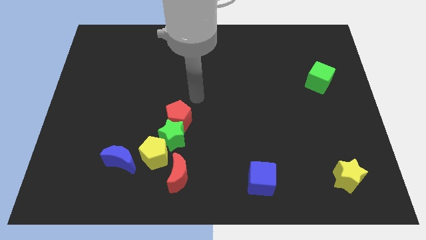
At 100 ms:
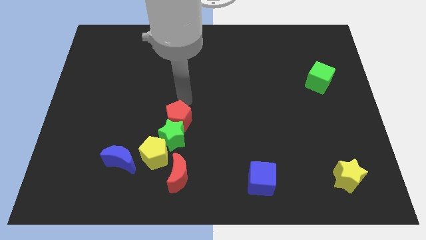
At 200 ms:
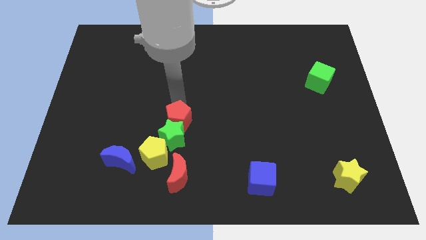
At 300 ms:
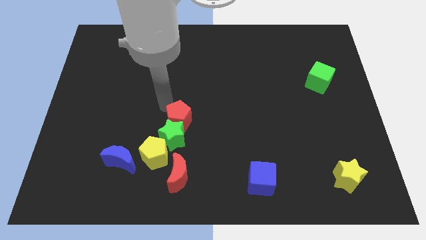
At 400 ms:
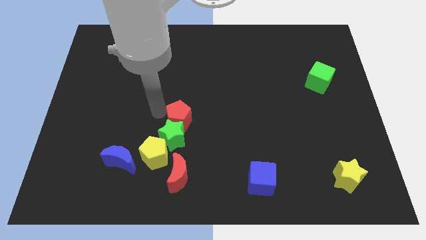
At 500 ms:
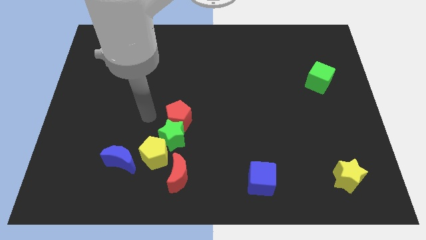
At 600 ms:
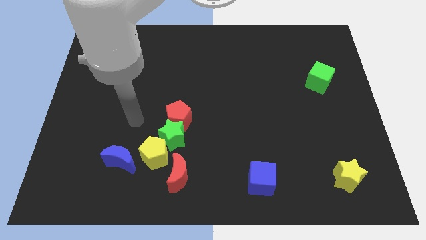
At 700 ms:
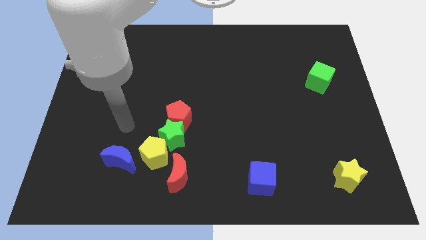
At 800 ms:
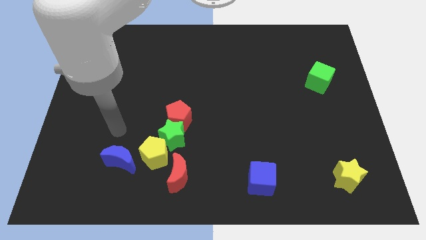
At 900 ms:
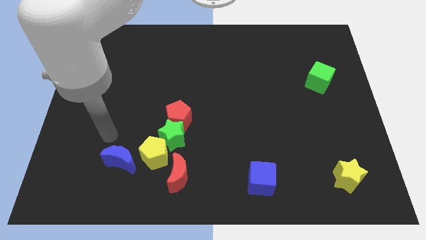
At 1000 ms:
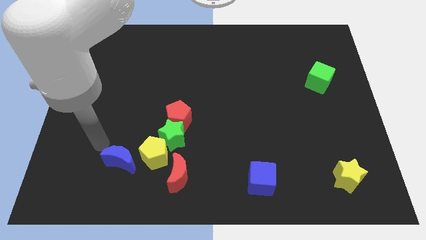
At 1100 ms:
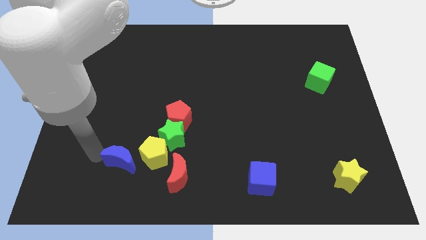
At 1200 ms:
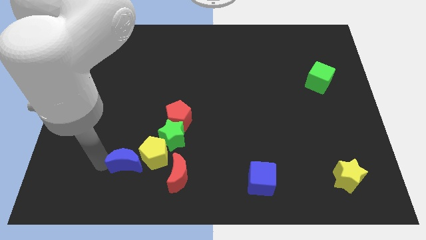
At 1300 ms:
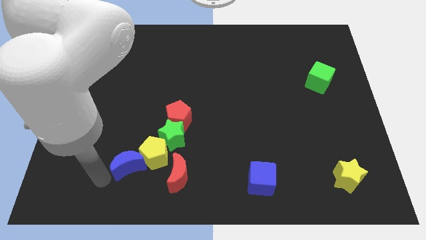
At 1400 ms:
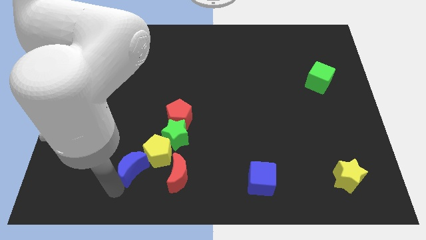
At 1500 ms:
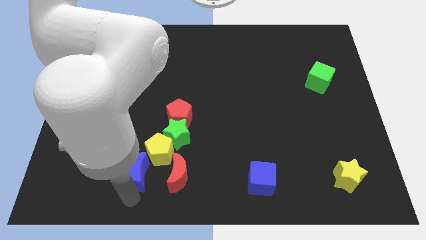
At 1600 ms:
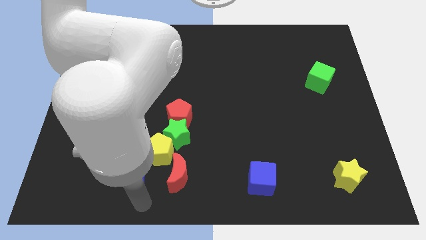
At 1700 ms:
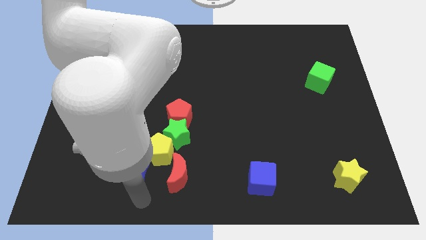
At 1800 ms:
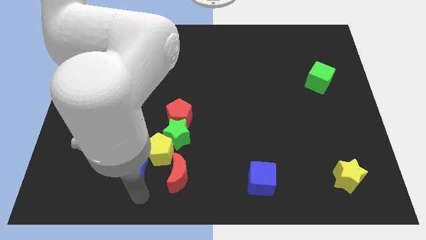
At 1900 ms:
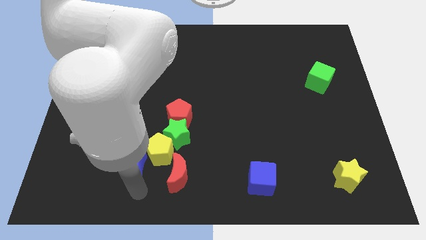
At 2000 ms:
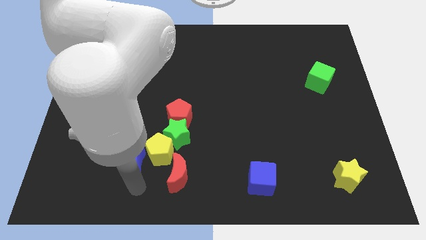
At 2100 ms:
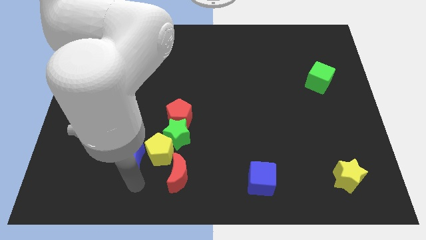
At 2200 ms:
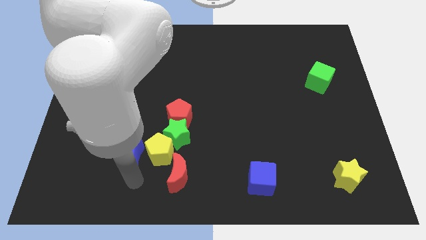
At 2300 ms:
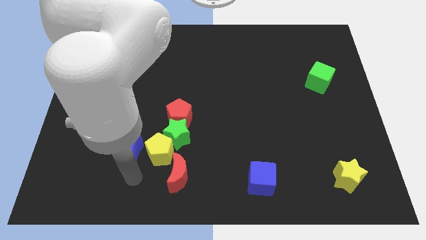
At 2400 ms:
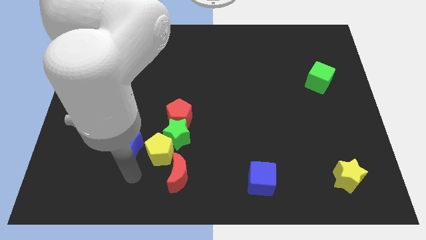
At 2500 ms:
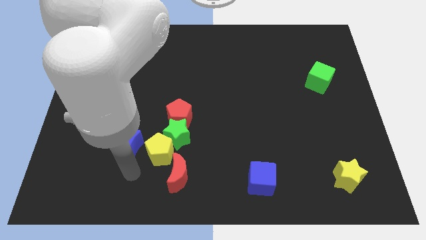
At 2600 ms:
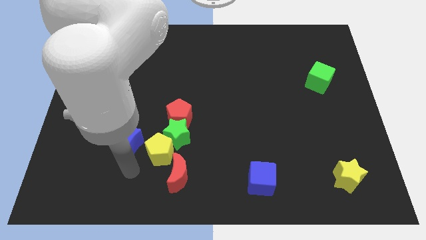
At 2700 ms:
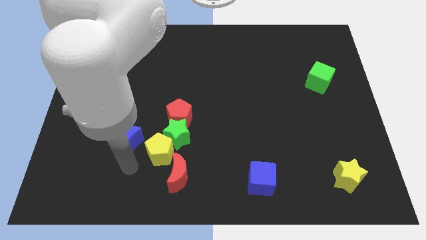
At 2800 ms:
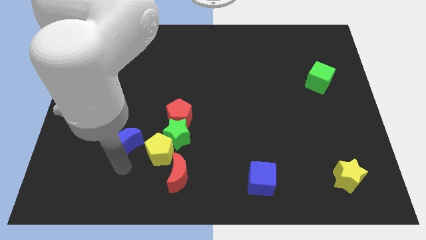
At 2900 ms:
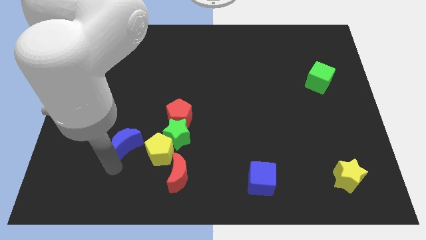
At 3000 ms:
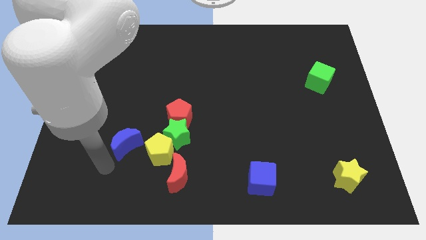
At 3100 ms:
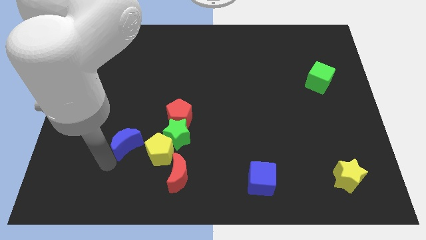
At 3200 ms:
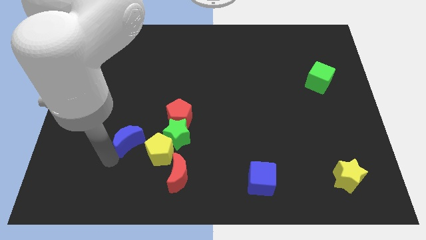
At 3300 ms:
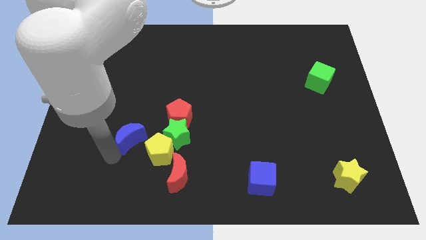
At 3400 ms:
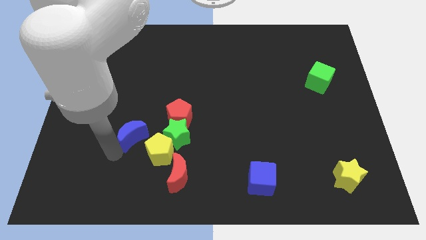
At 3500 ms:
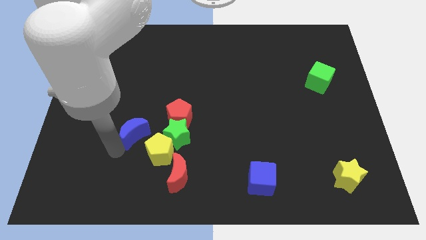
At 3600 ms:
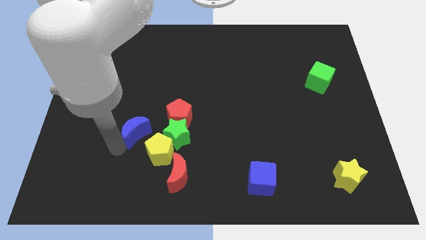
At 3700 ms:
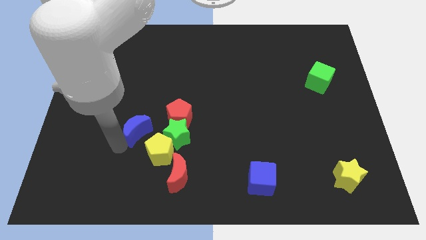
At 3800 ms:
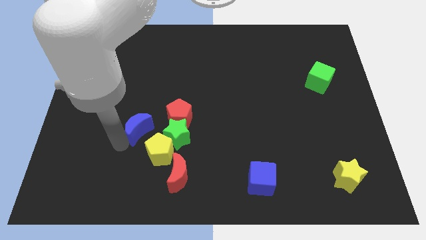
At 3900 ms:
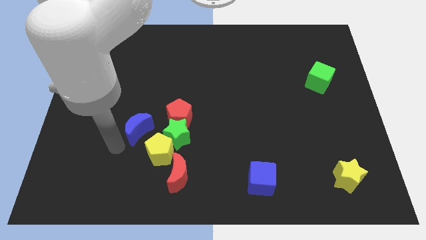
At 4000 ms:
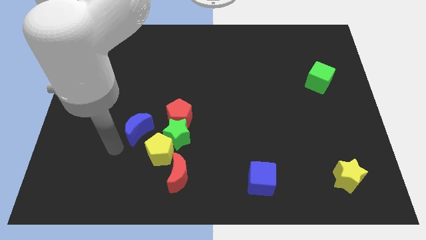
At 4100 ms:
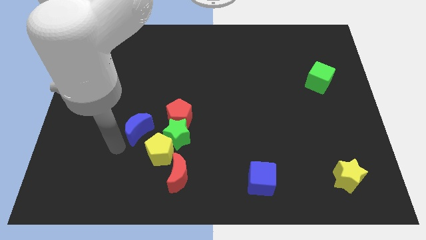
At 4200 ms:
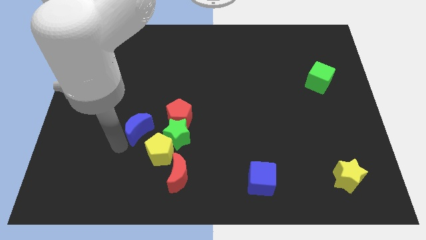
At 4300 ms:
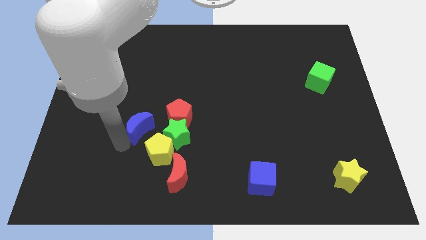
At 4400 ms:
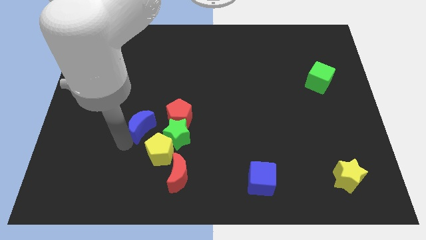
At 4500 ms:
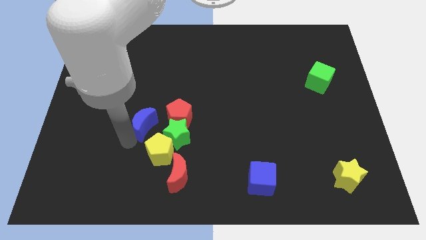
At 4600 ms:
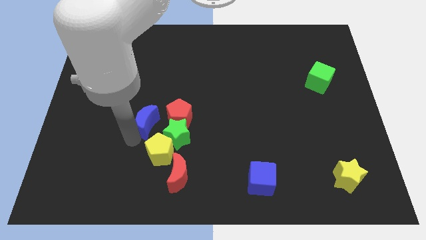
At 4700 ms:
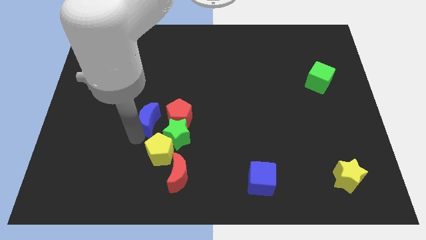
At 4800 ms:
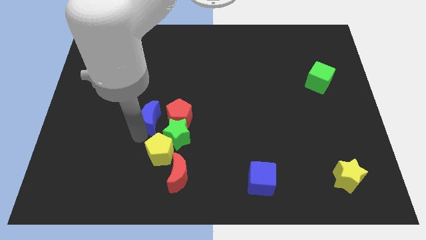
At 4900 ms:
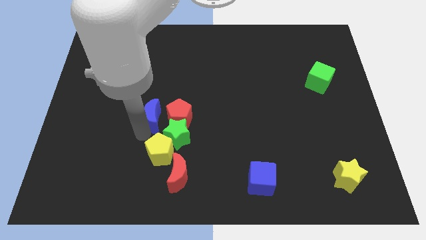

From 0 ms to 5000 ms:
move the blue moon next to the red pentagon

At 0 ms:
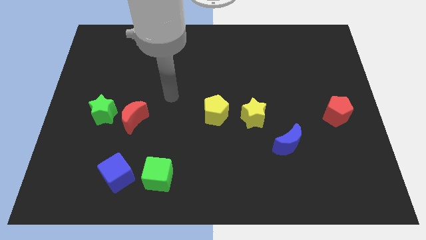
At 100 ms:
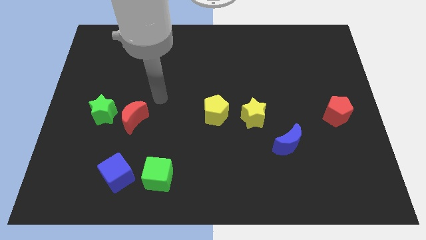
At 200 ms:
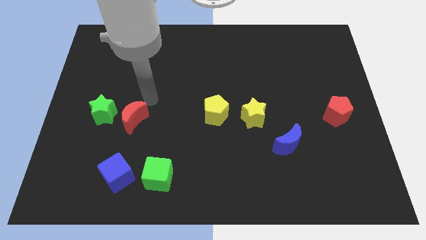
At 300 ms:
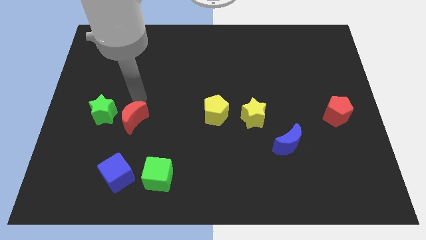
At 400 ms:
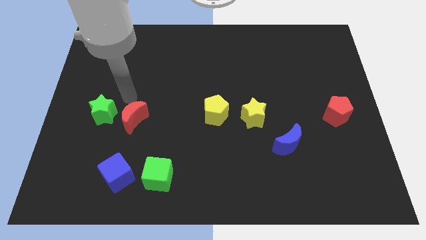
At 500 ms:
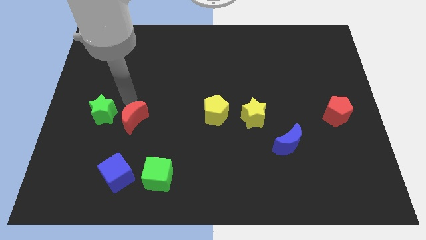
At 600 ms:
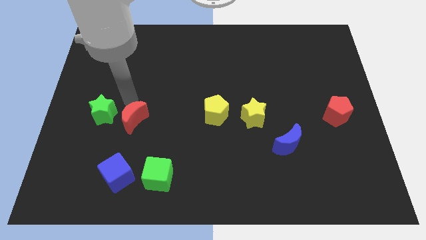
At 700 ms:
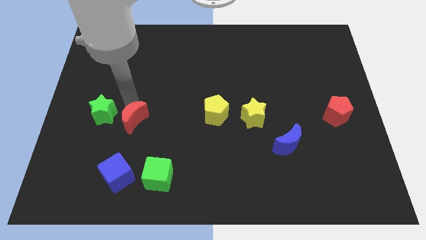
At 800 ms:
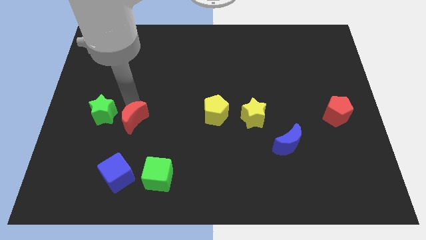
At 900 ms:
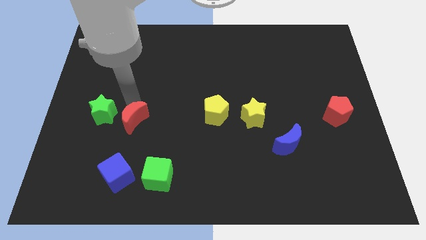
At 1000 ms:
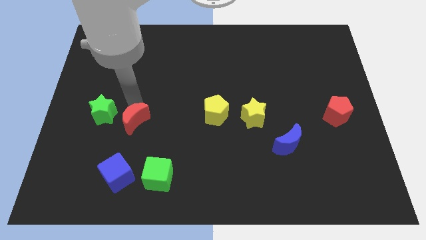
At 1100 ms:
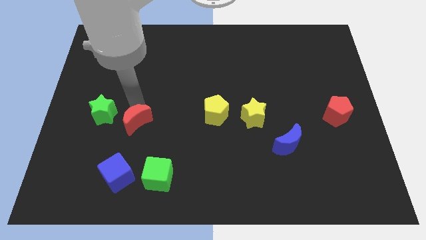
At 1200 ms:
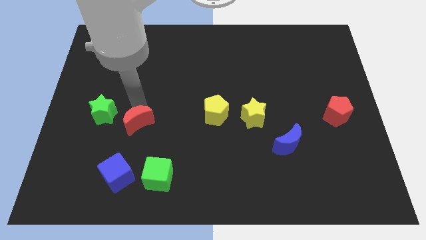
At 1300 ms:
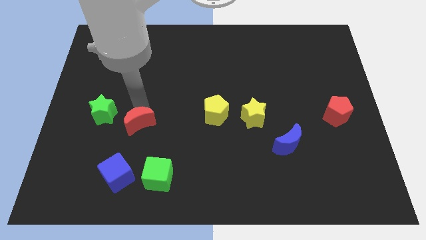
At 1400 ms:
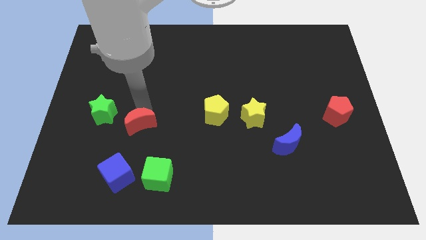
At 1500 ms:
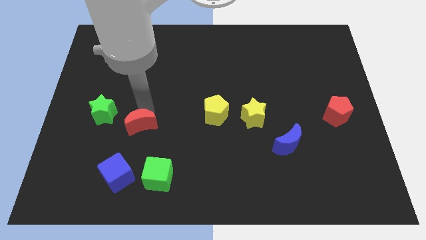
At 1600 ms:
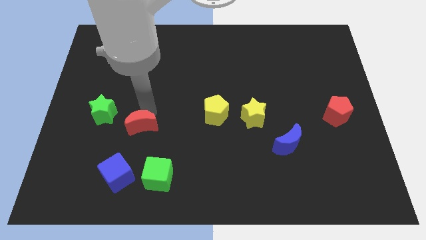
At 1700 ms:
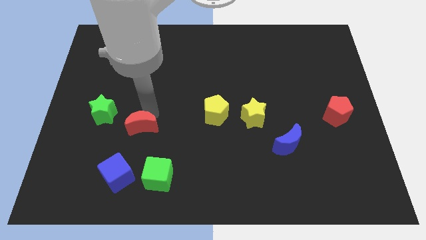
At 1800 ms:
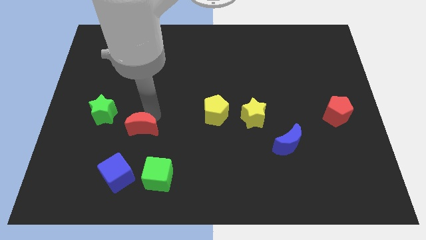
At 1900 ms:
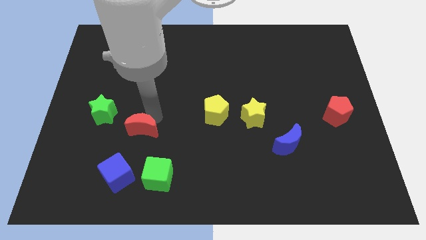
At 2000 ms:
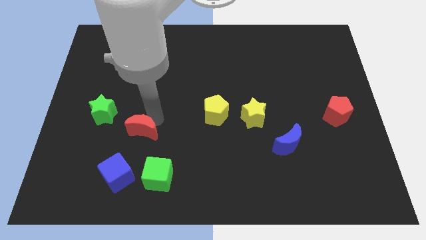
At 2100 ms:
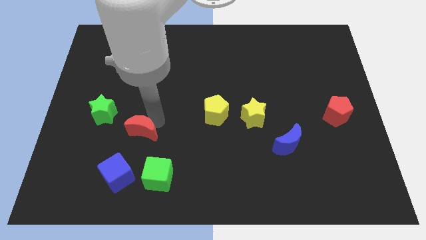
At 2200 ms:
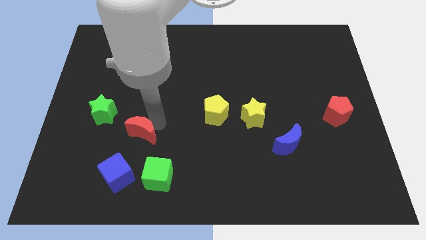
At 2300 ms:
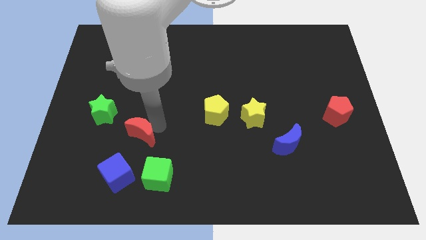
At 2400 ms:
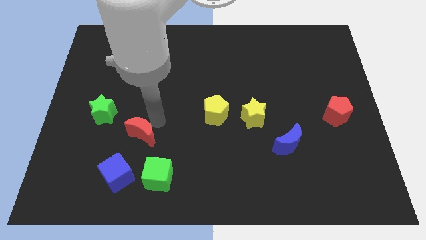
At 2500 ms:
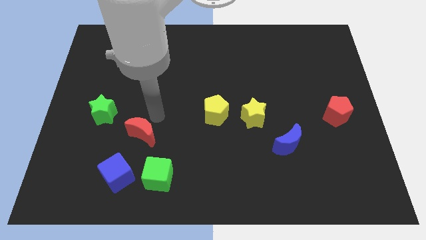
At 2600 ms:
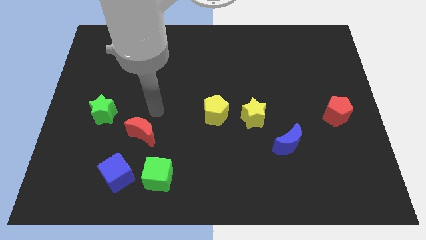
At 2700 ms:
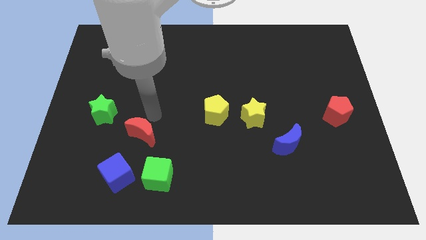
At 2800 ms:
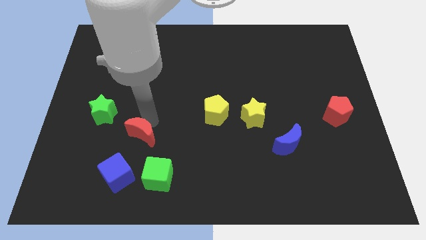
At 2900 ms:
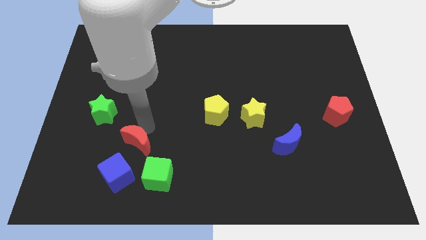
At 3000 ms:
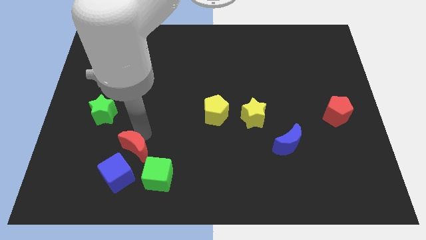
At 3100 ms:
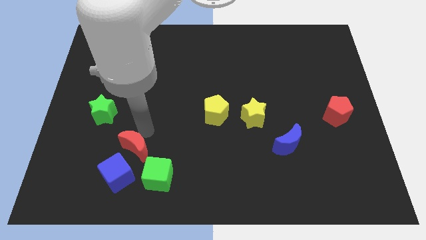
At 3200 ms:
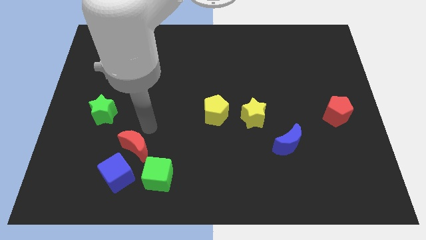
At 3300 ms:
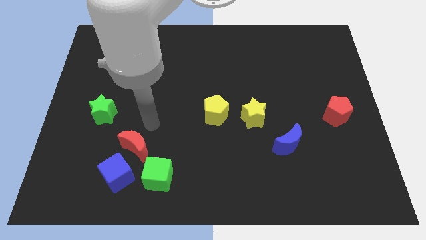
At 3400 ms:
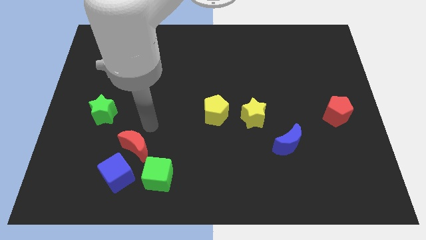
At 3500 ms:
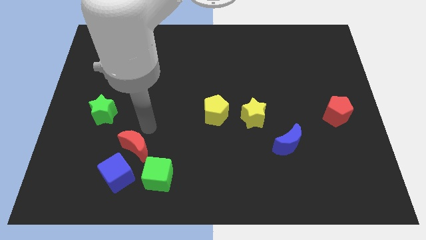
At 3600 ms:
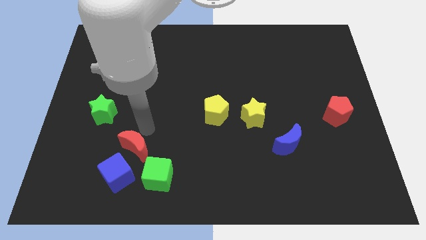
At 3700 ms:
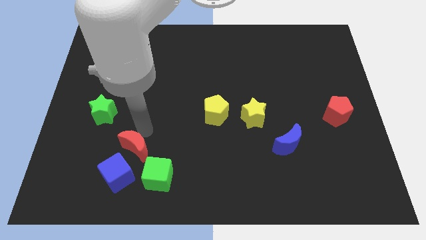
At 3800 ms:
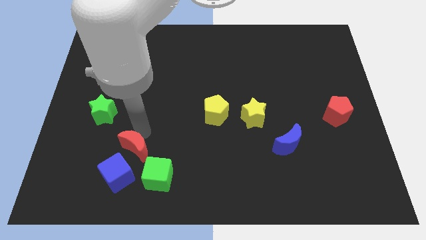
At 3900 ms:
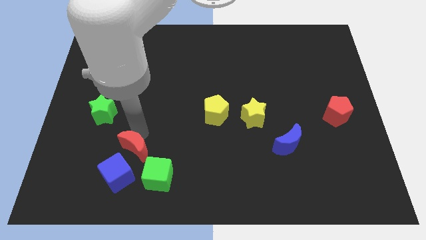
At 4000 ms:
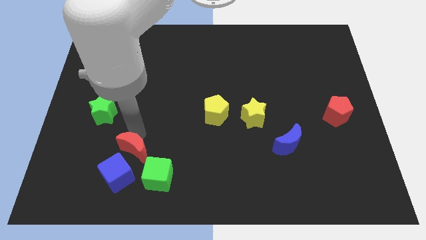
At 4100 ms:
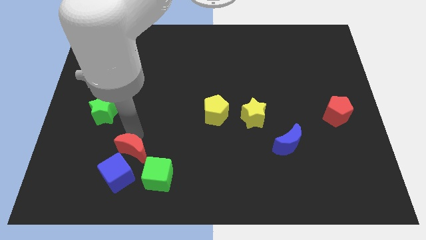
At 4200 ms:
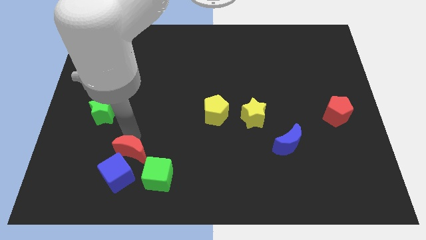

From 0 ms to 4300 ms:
move the red moon to the blue cube
